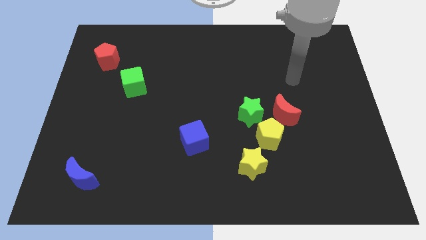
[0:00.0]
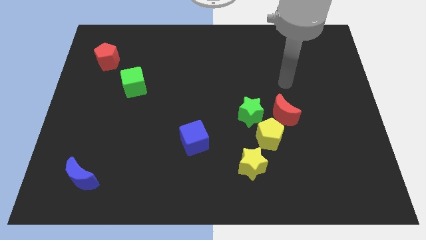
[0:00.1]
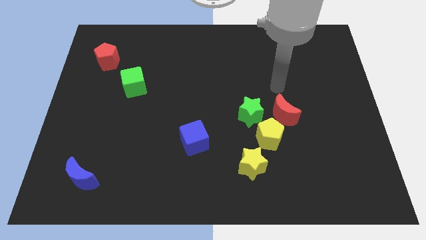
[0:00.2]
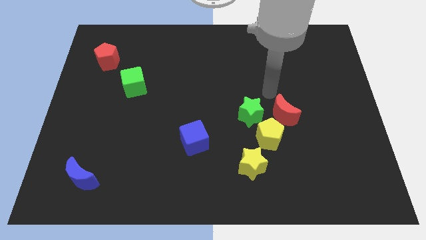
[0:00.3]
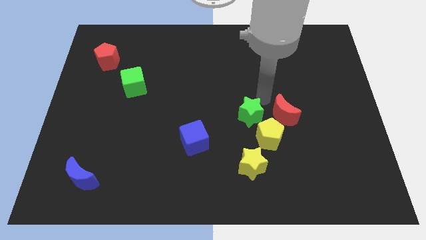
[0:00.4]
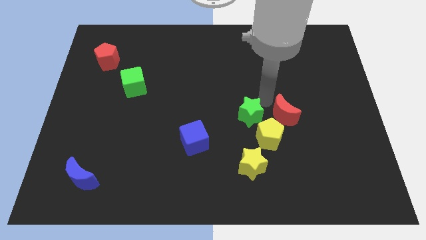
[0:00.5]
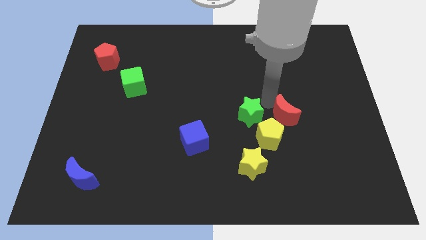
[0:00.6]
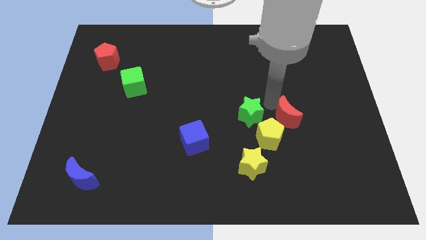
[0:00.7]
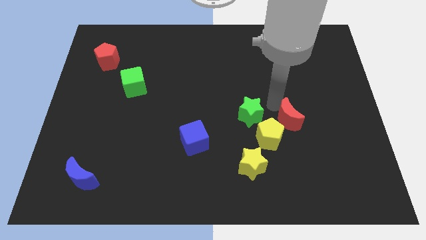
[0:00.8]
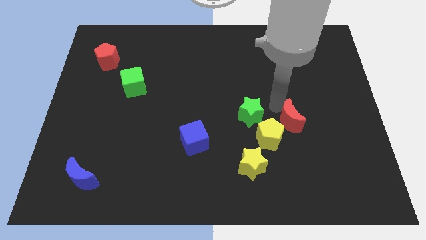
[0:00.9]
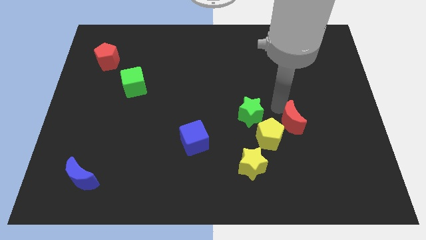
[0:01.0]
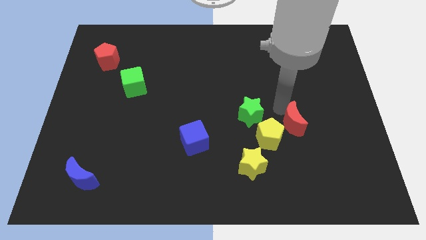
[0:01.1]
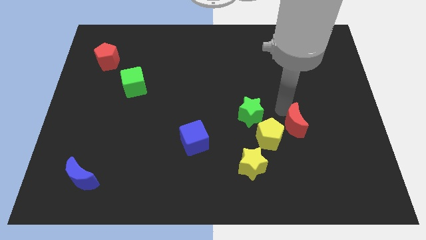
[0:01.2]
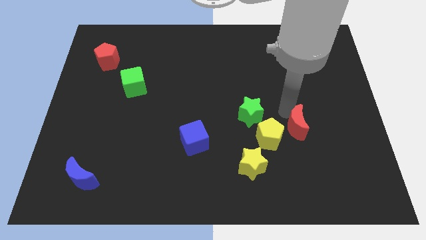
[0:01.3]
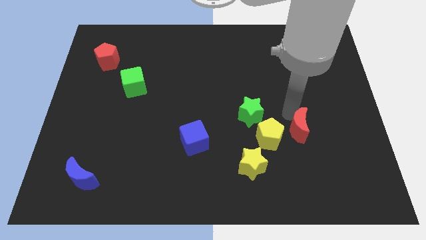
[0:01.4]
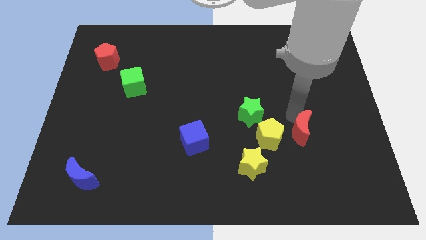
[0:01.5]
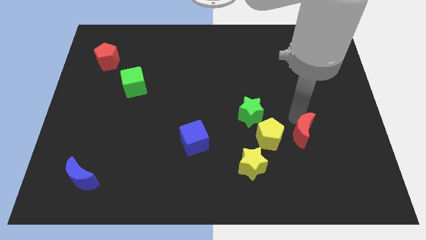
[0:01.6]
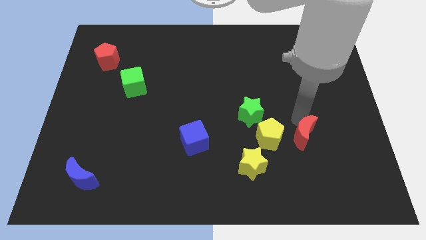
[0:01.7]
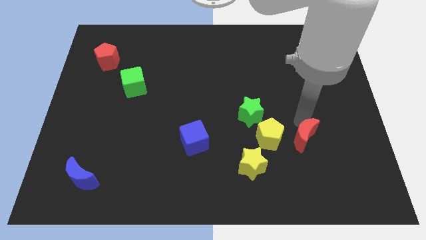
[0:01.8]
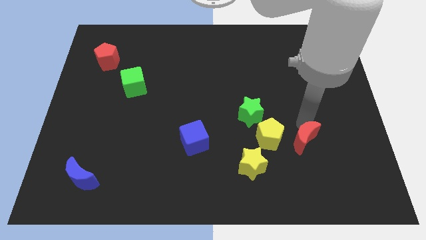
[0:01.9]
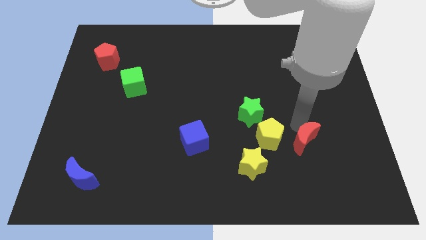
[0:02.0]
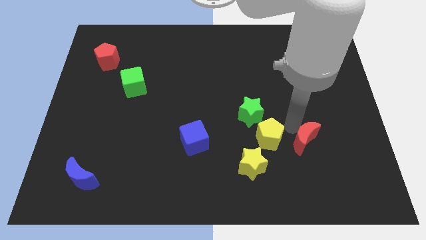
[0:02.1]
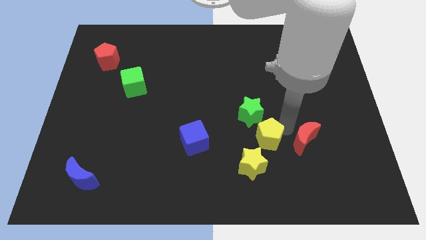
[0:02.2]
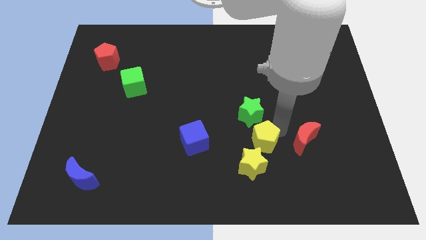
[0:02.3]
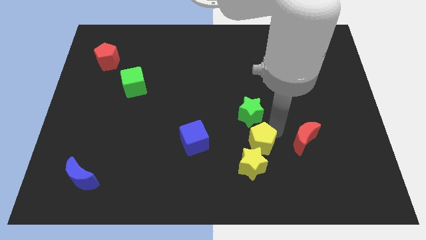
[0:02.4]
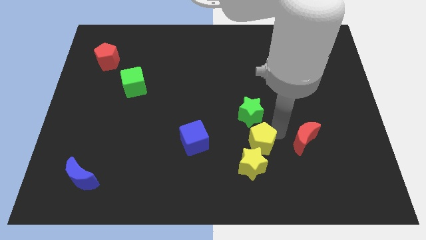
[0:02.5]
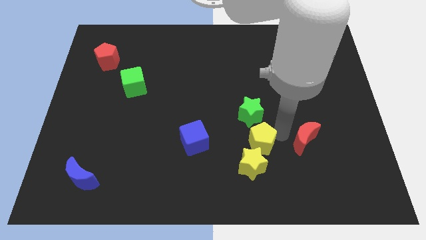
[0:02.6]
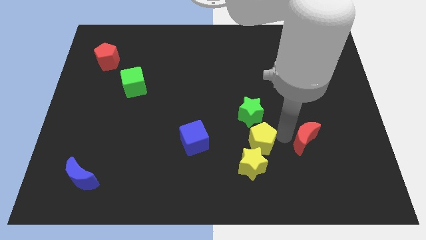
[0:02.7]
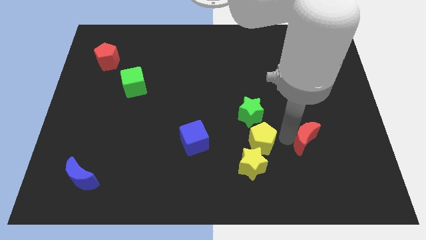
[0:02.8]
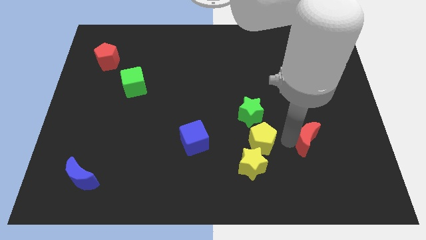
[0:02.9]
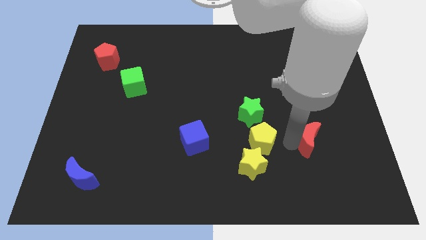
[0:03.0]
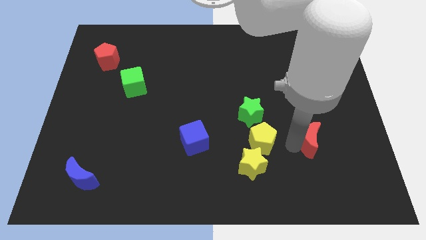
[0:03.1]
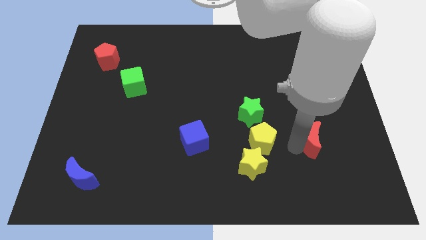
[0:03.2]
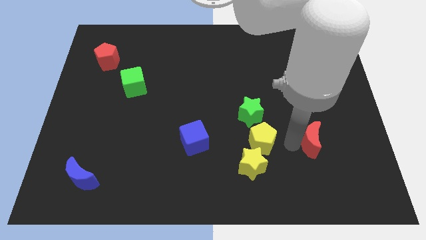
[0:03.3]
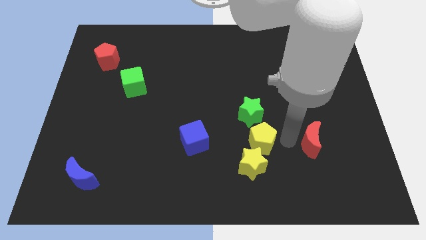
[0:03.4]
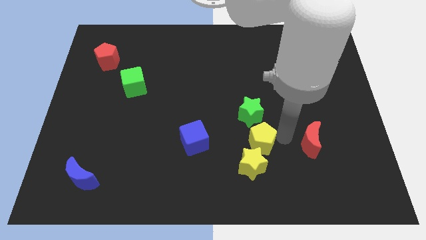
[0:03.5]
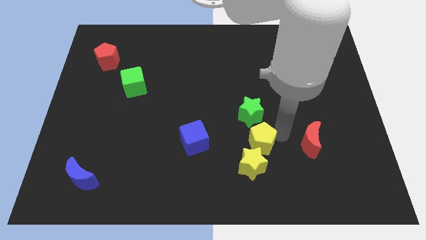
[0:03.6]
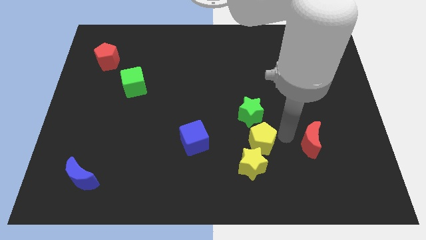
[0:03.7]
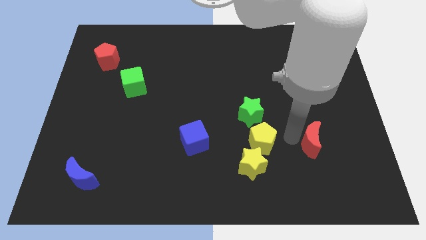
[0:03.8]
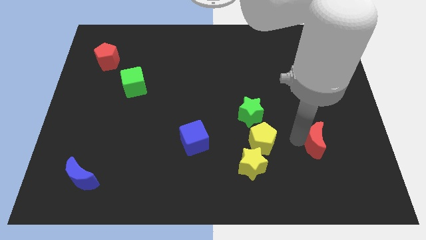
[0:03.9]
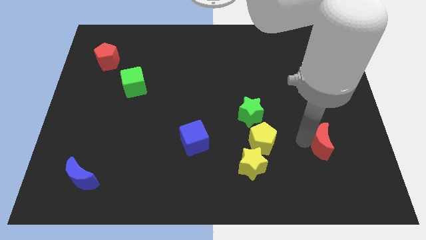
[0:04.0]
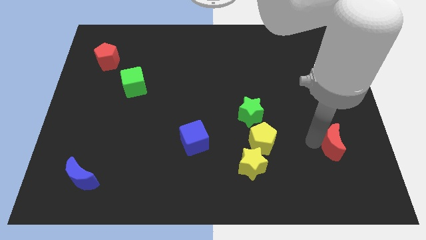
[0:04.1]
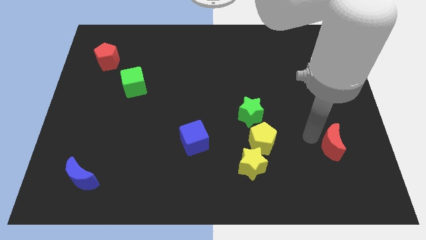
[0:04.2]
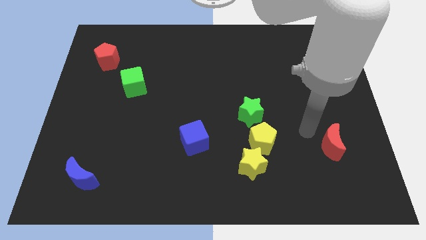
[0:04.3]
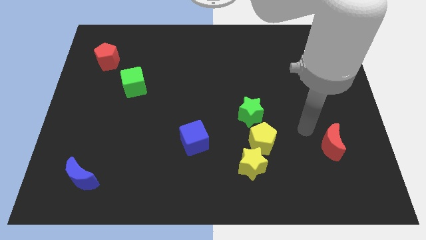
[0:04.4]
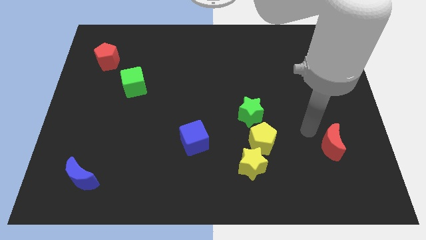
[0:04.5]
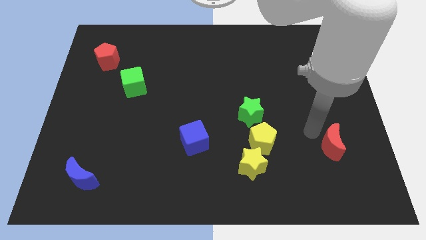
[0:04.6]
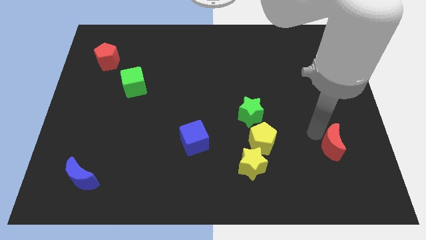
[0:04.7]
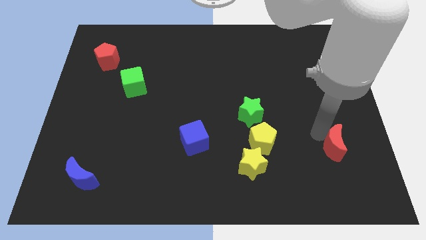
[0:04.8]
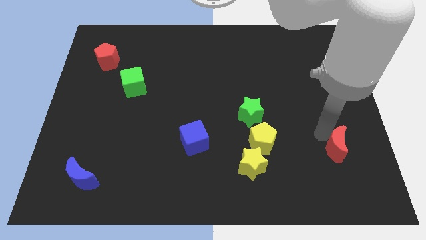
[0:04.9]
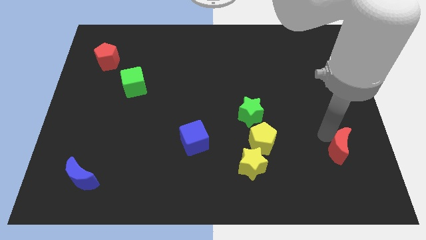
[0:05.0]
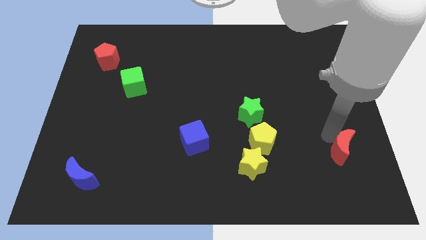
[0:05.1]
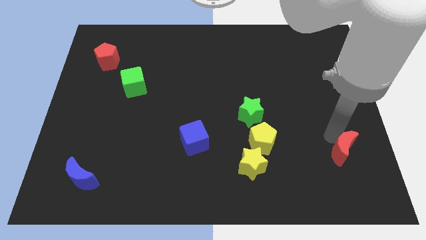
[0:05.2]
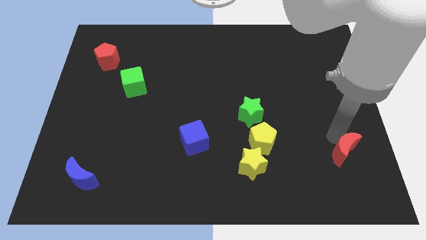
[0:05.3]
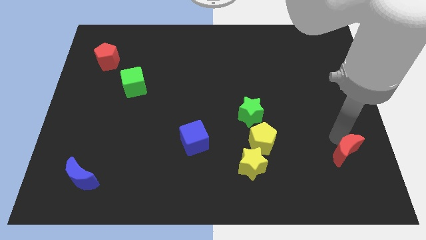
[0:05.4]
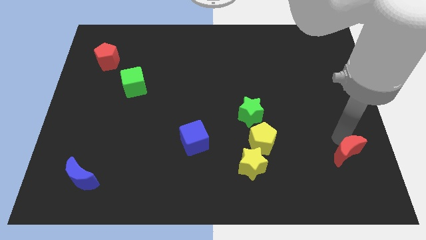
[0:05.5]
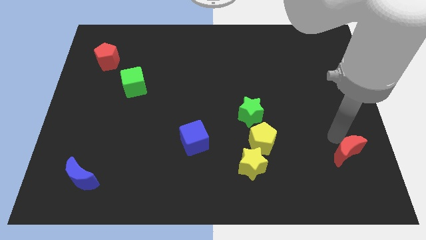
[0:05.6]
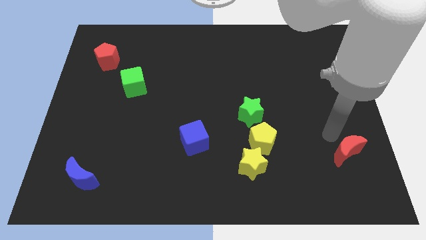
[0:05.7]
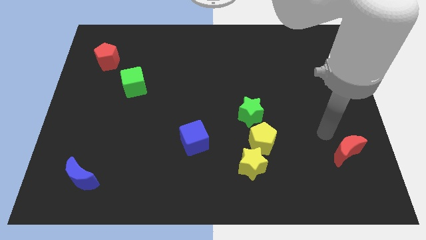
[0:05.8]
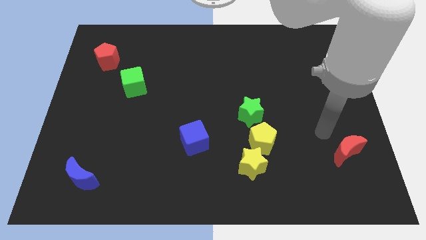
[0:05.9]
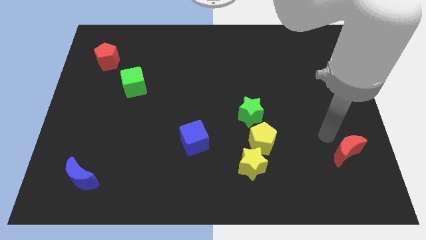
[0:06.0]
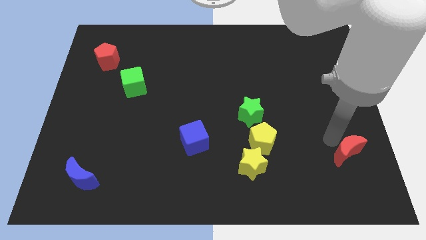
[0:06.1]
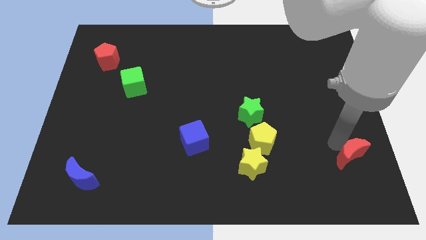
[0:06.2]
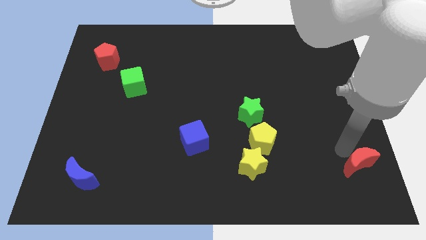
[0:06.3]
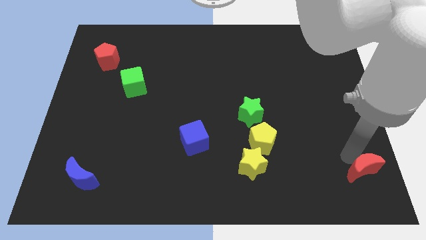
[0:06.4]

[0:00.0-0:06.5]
slide the red moon to the bottom right corner

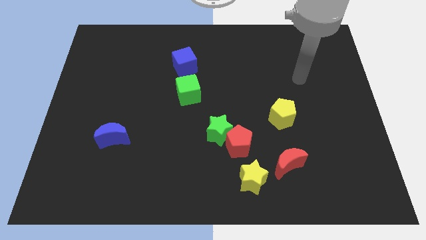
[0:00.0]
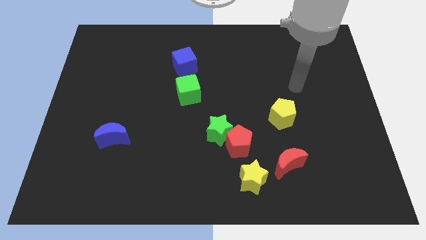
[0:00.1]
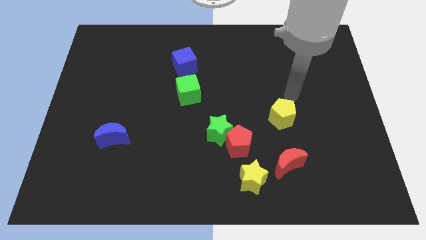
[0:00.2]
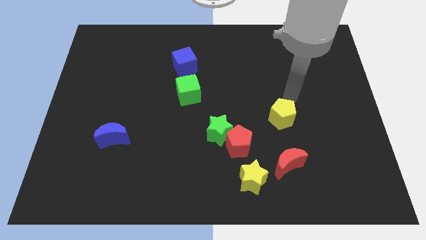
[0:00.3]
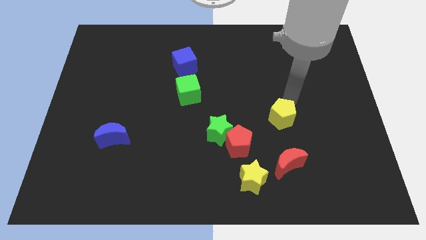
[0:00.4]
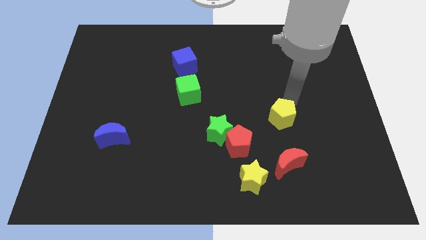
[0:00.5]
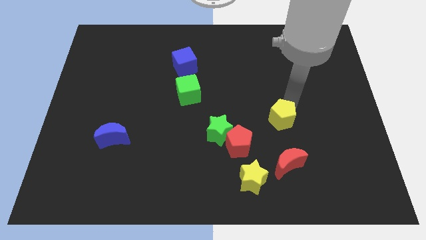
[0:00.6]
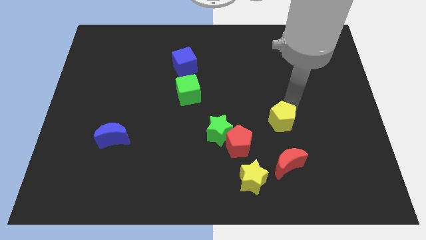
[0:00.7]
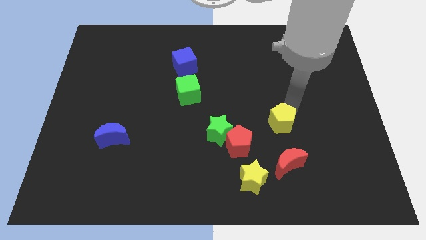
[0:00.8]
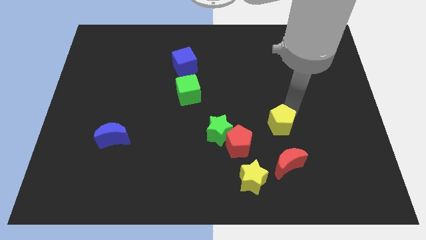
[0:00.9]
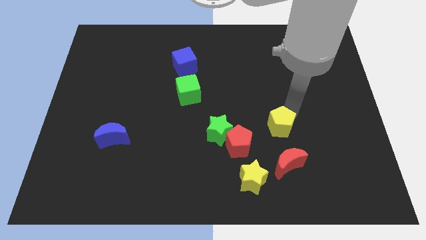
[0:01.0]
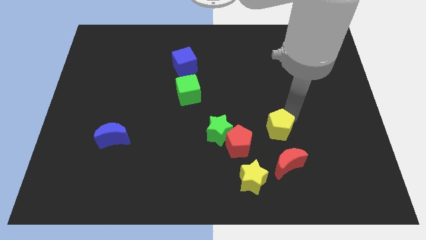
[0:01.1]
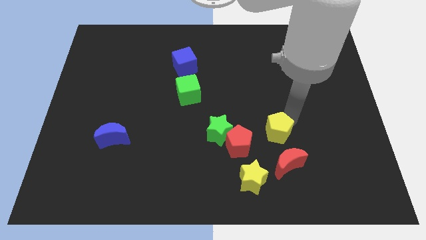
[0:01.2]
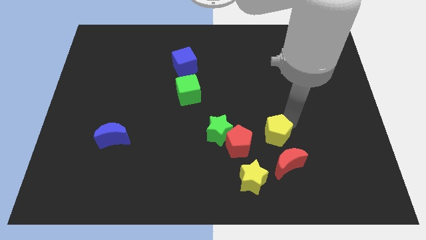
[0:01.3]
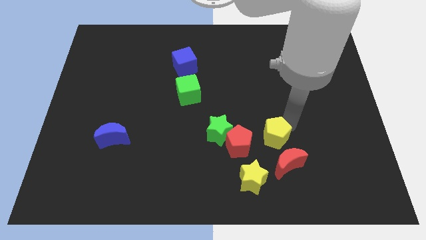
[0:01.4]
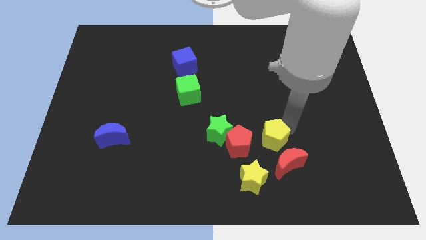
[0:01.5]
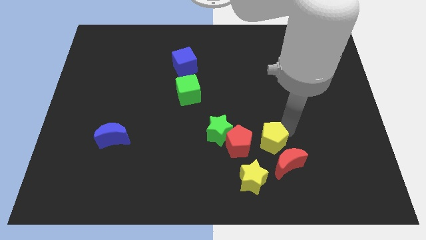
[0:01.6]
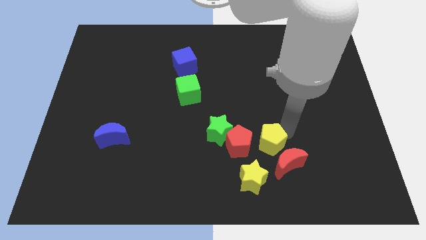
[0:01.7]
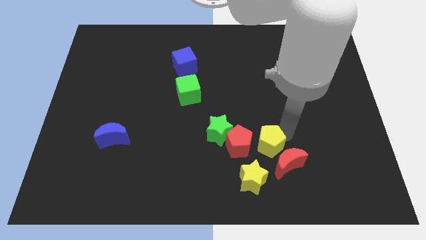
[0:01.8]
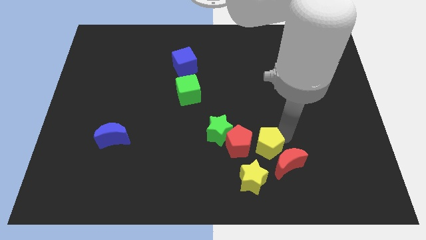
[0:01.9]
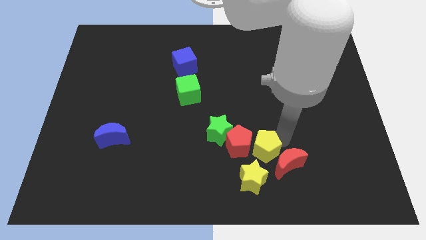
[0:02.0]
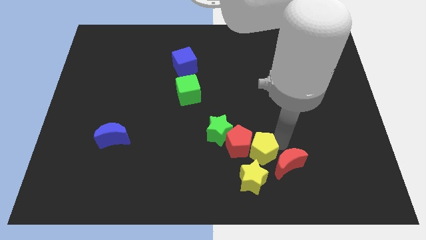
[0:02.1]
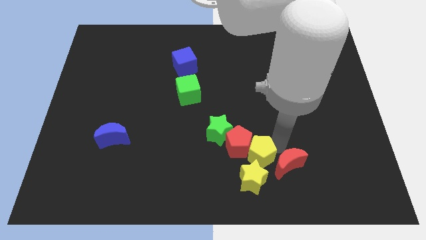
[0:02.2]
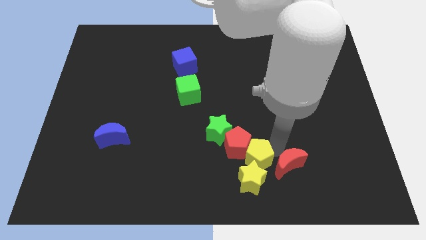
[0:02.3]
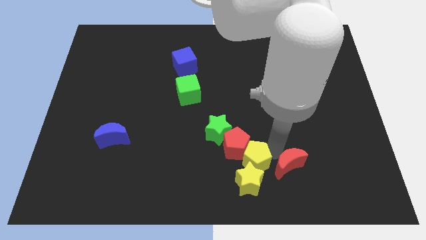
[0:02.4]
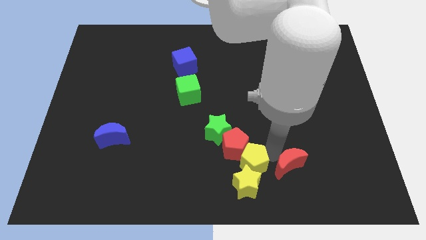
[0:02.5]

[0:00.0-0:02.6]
move the yellow pentagon to the bottom side
